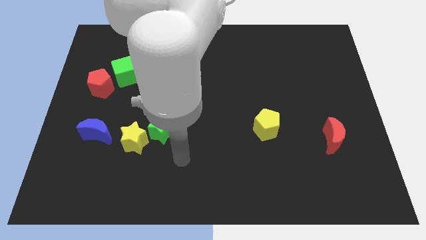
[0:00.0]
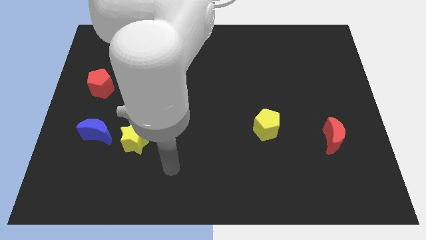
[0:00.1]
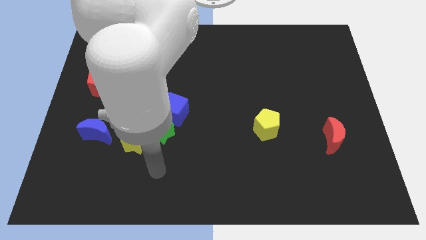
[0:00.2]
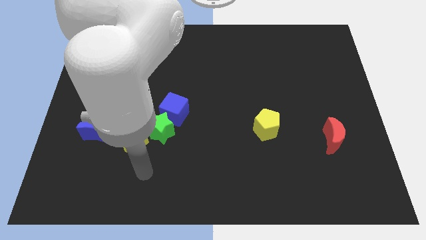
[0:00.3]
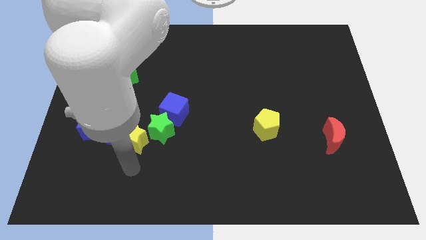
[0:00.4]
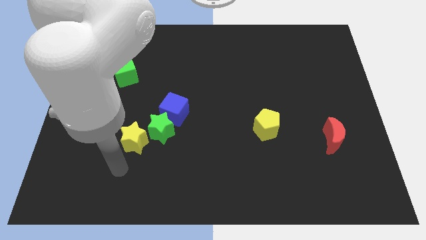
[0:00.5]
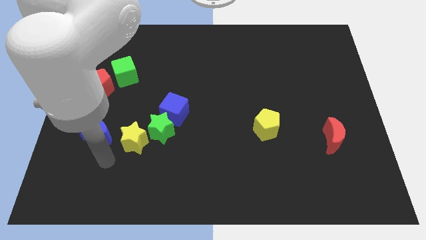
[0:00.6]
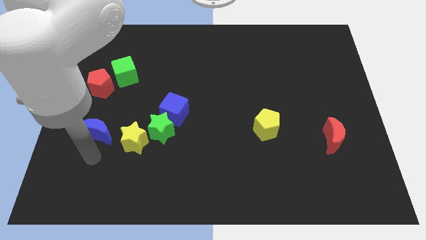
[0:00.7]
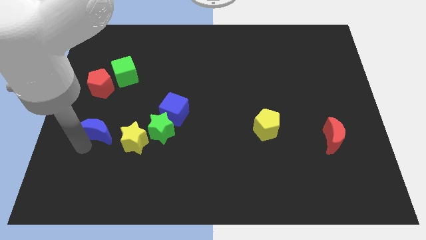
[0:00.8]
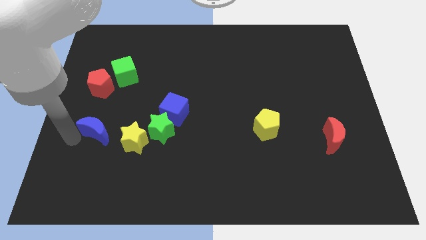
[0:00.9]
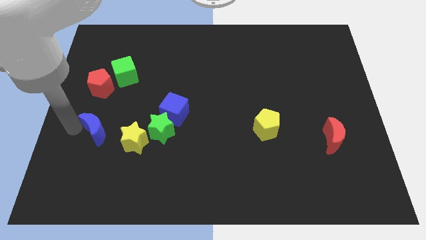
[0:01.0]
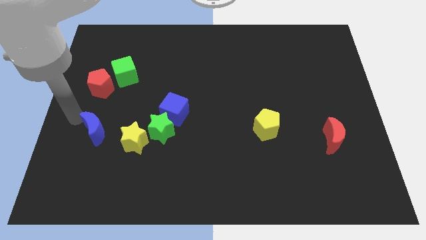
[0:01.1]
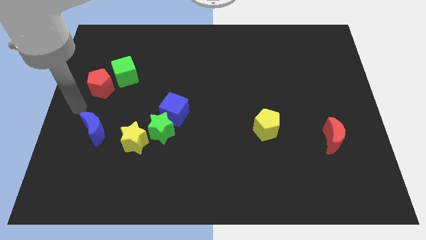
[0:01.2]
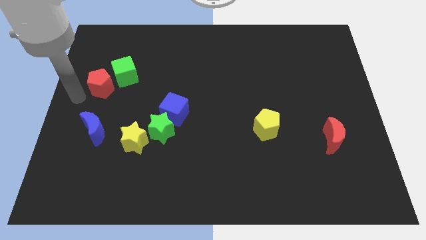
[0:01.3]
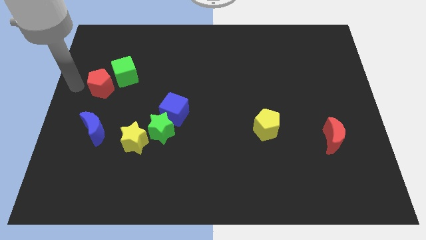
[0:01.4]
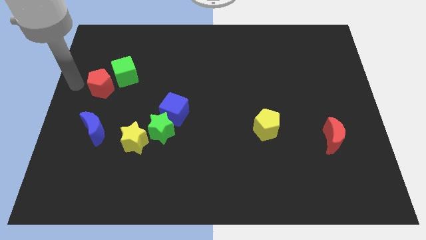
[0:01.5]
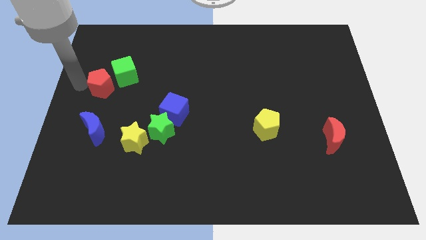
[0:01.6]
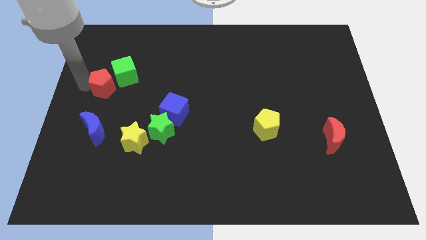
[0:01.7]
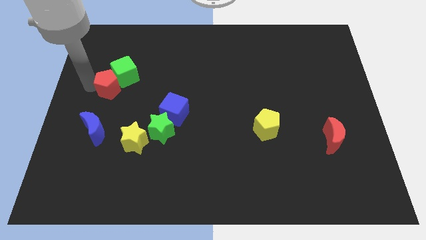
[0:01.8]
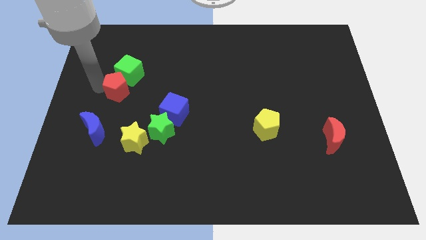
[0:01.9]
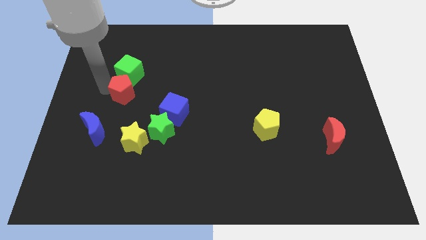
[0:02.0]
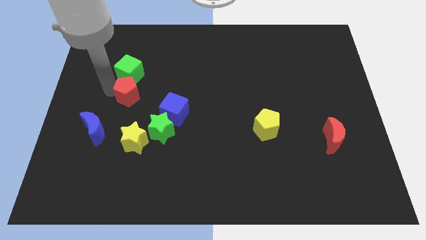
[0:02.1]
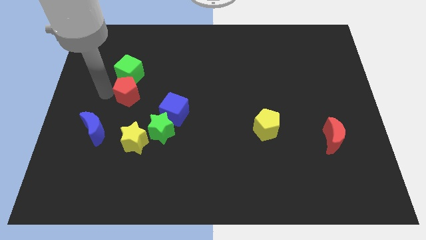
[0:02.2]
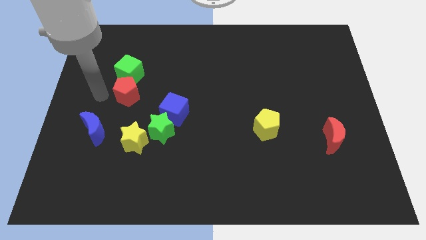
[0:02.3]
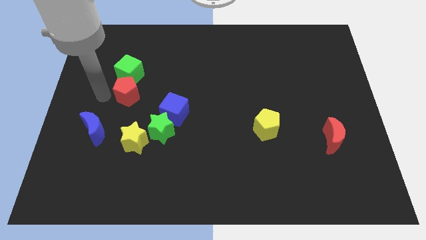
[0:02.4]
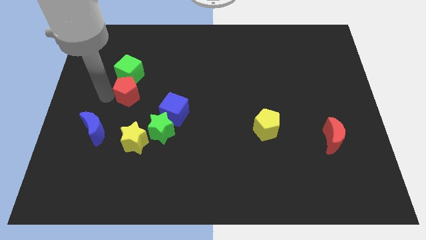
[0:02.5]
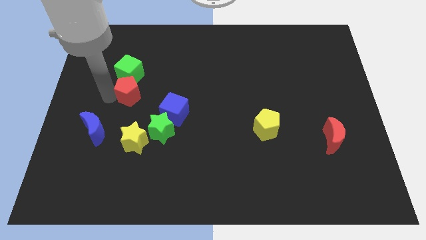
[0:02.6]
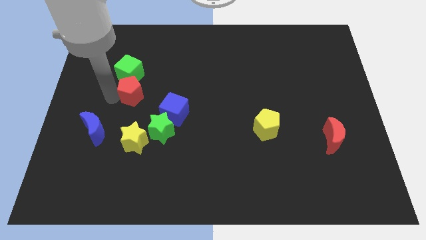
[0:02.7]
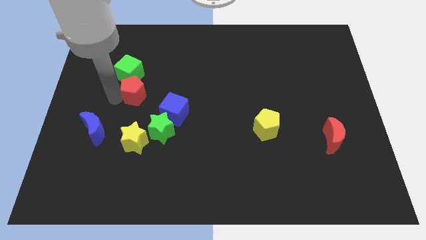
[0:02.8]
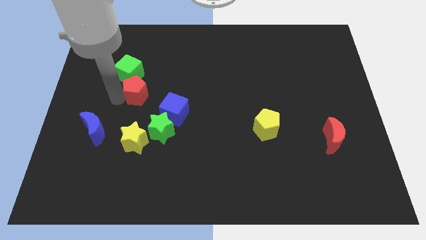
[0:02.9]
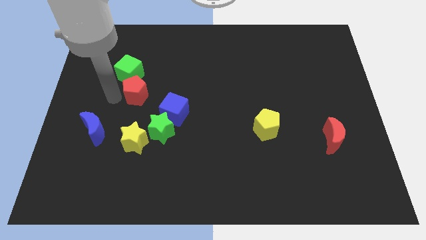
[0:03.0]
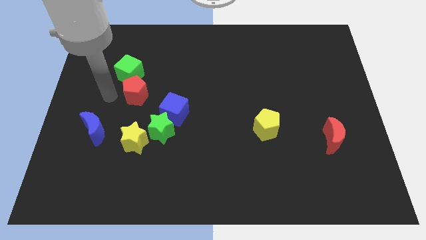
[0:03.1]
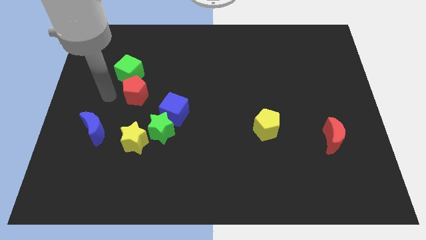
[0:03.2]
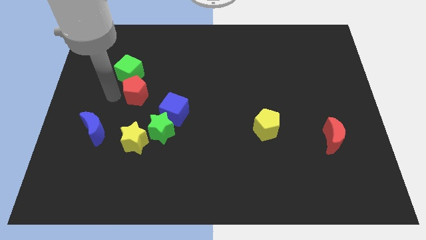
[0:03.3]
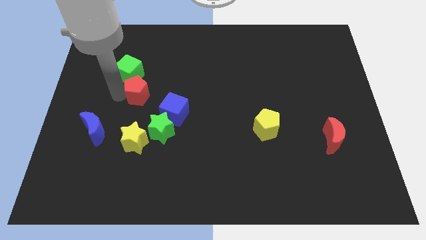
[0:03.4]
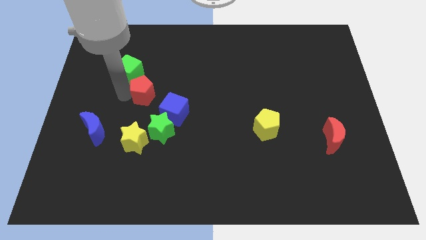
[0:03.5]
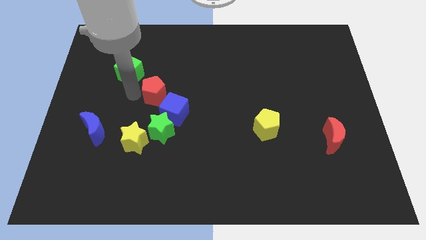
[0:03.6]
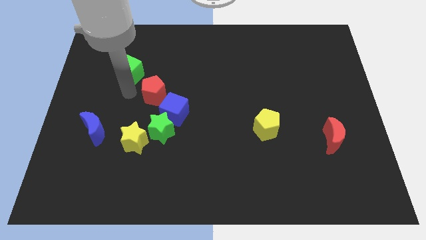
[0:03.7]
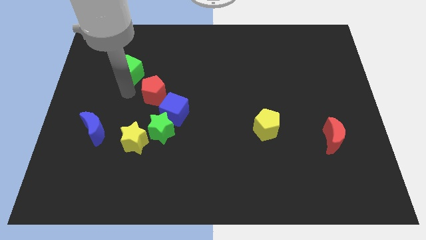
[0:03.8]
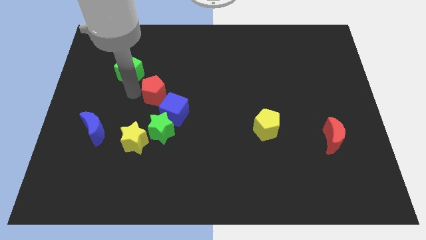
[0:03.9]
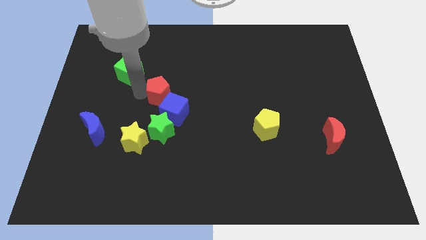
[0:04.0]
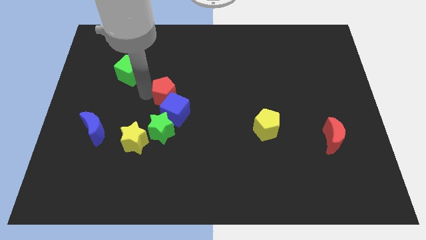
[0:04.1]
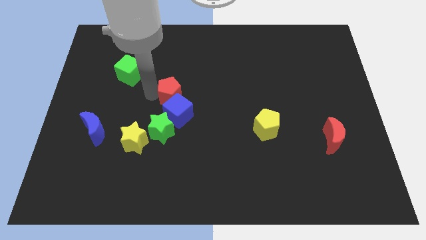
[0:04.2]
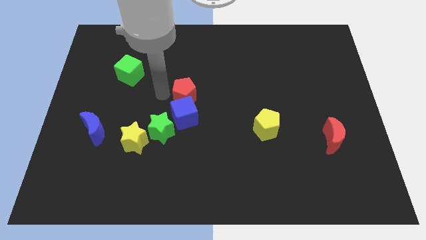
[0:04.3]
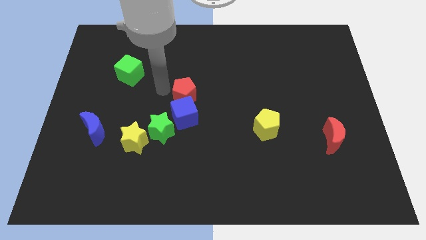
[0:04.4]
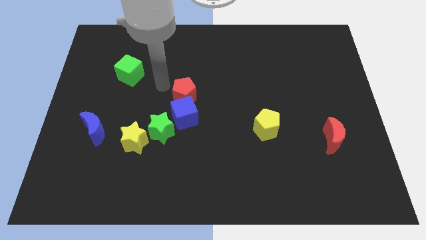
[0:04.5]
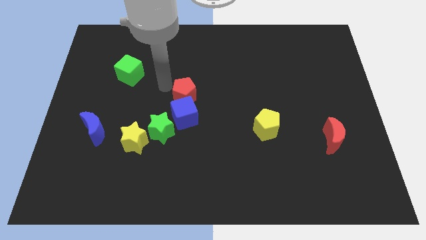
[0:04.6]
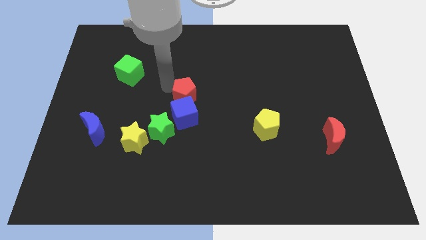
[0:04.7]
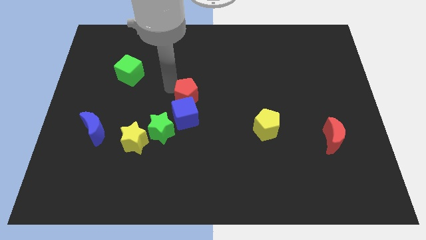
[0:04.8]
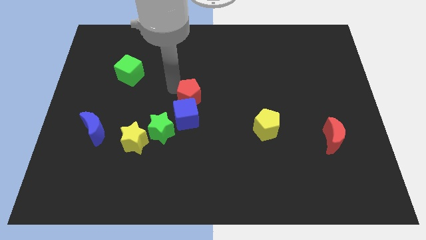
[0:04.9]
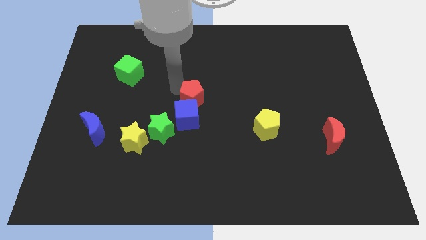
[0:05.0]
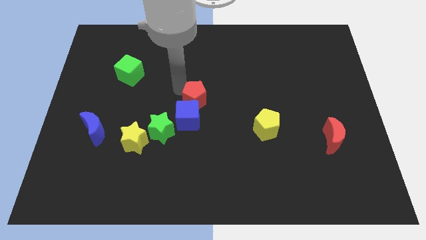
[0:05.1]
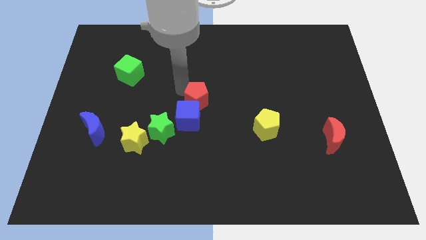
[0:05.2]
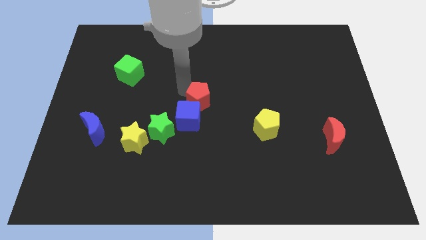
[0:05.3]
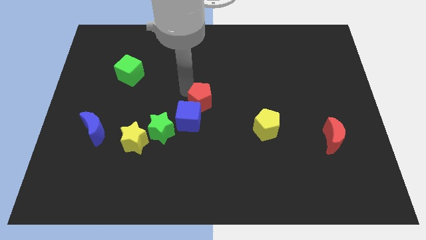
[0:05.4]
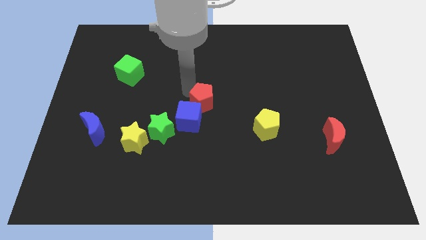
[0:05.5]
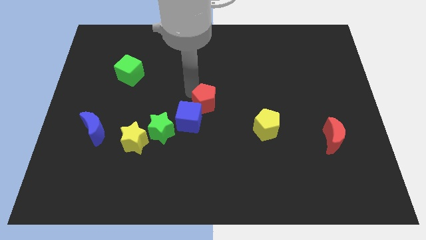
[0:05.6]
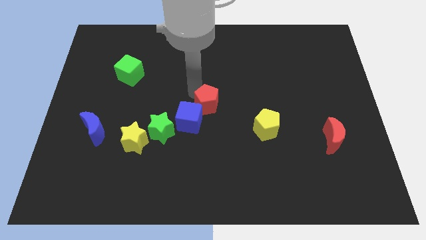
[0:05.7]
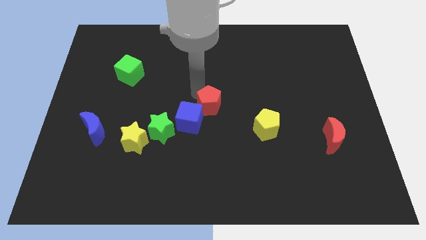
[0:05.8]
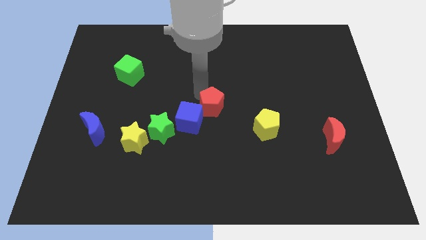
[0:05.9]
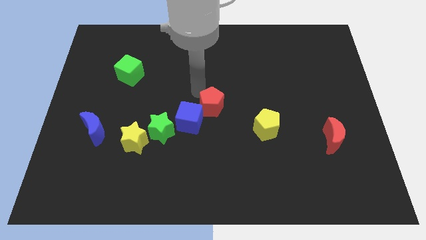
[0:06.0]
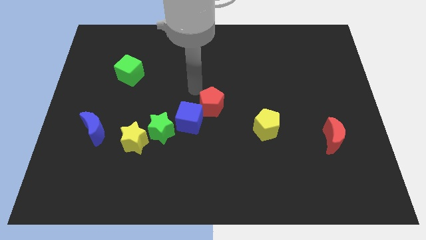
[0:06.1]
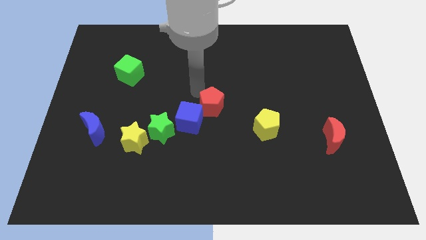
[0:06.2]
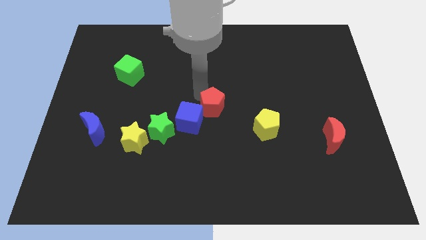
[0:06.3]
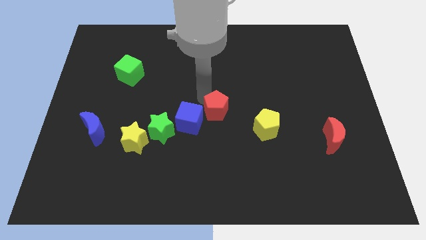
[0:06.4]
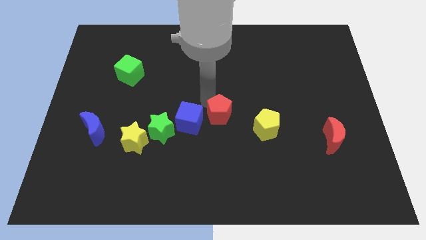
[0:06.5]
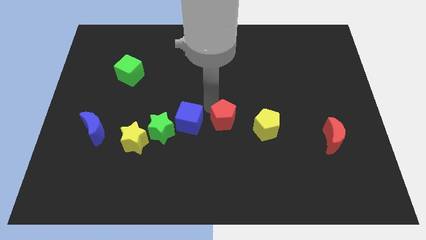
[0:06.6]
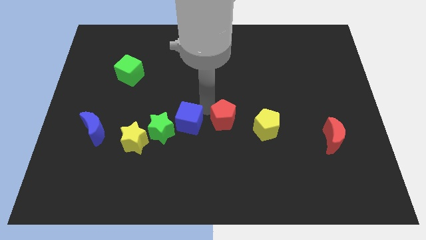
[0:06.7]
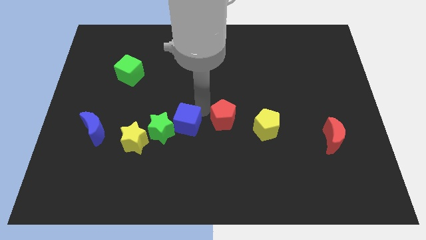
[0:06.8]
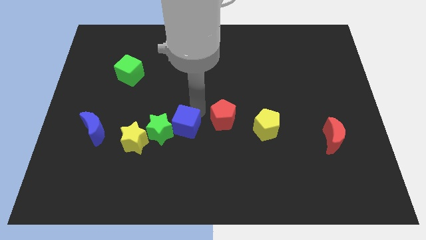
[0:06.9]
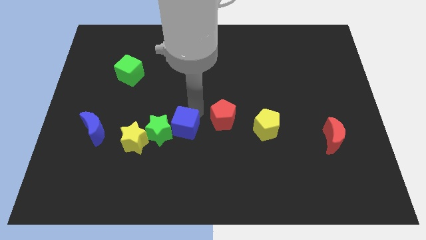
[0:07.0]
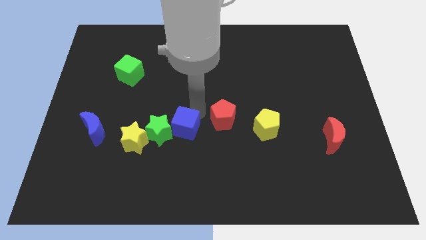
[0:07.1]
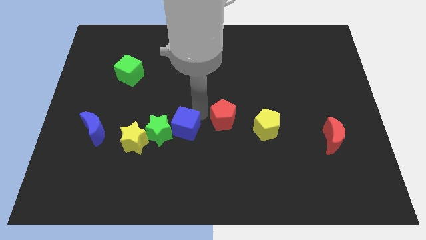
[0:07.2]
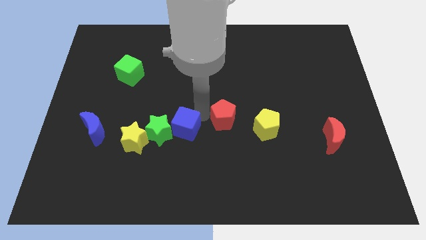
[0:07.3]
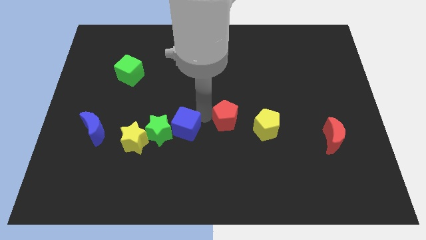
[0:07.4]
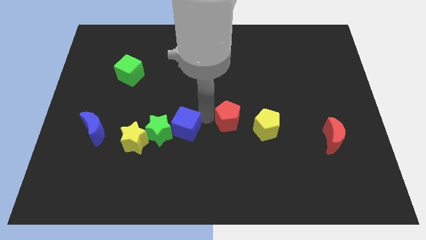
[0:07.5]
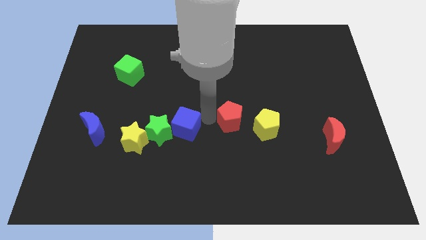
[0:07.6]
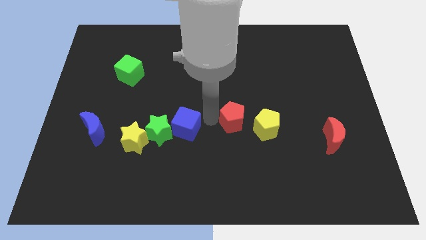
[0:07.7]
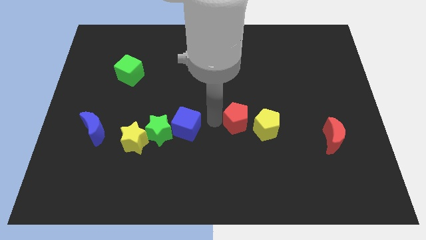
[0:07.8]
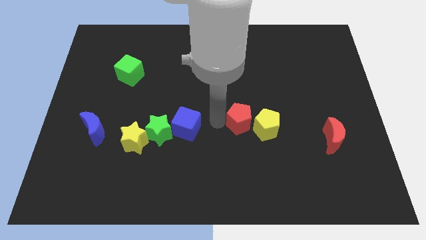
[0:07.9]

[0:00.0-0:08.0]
slide the red pentagon next to the yellow pentagon
